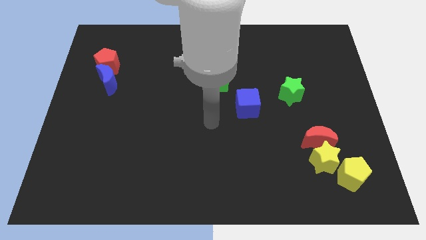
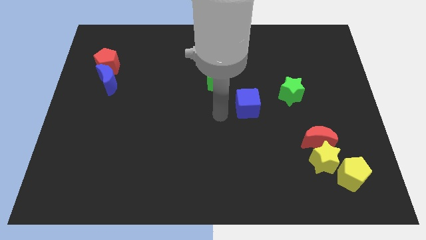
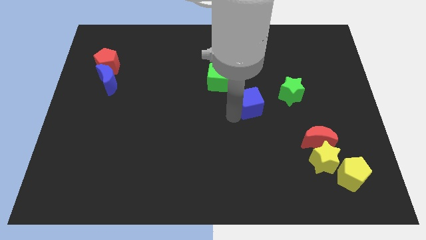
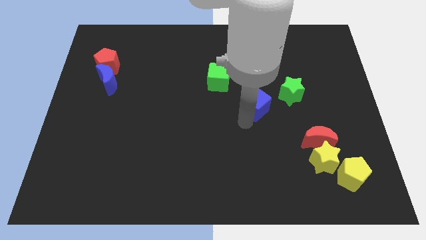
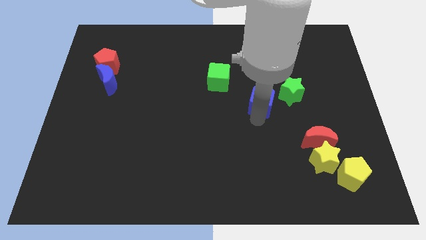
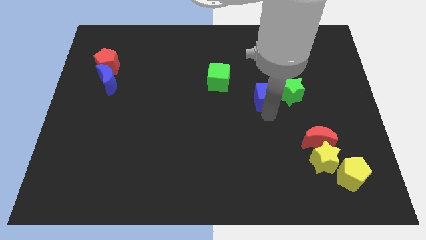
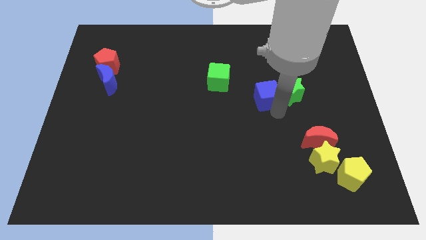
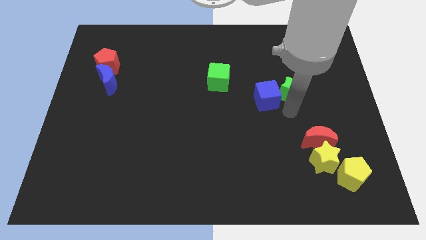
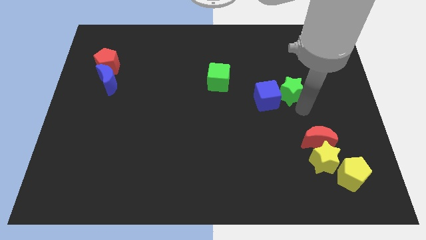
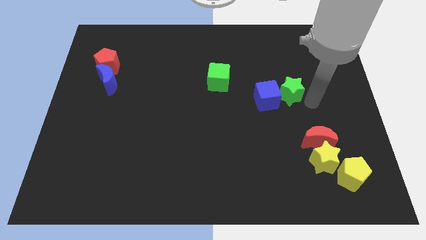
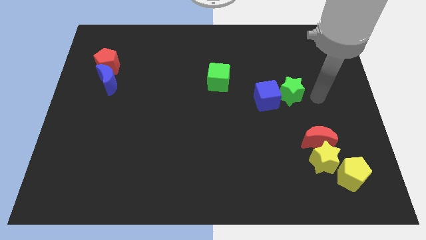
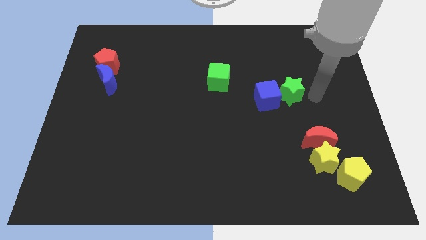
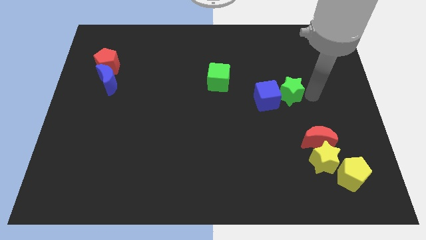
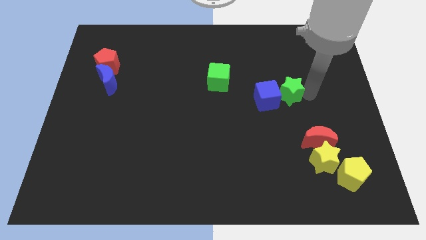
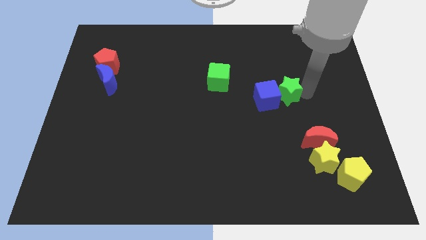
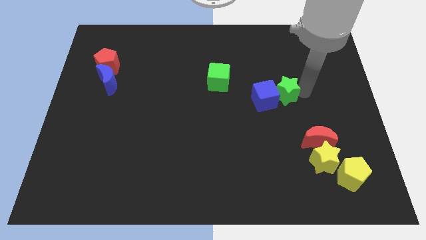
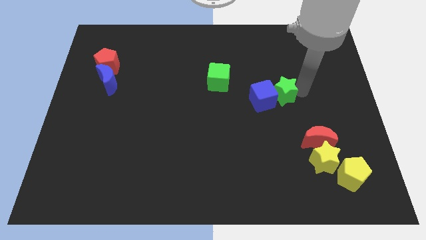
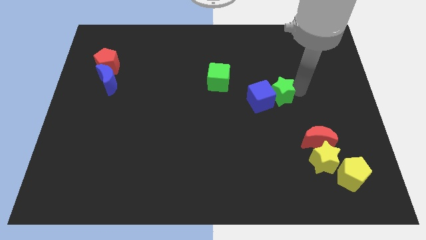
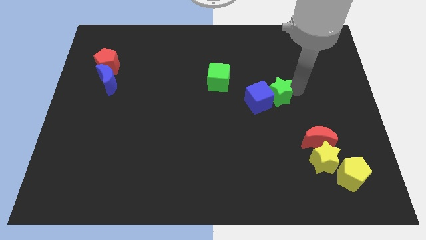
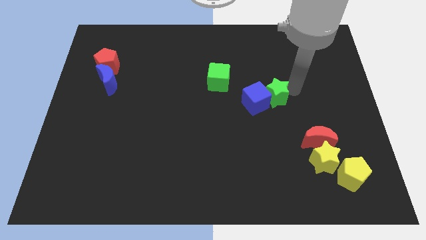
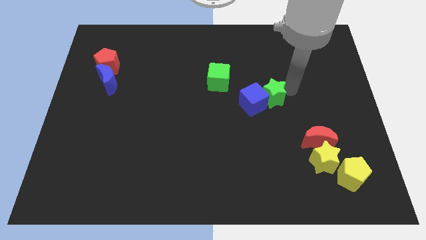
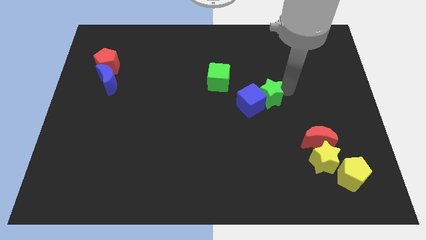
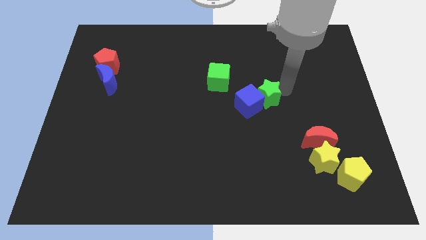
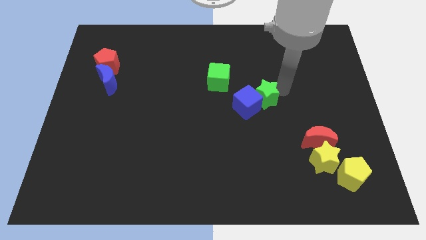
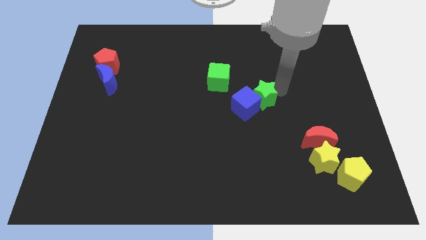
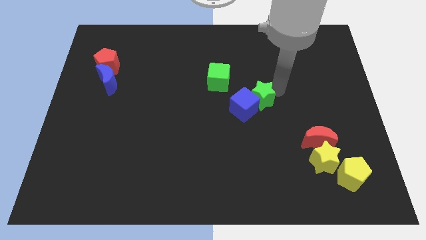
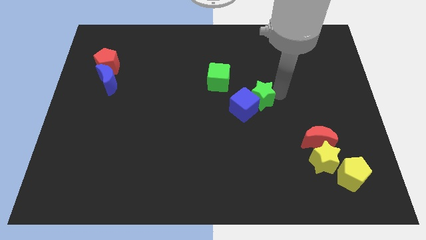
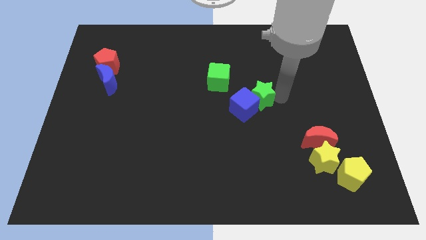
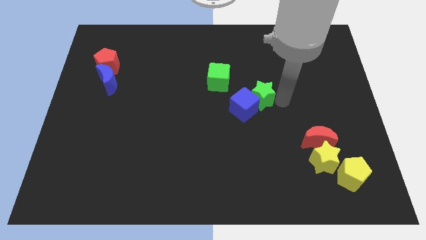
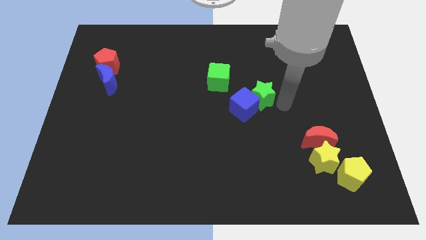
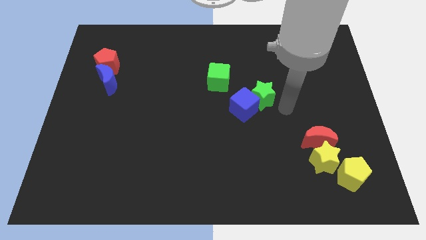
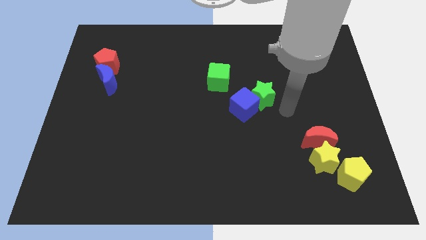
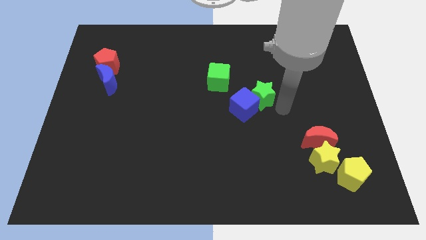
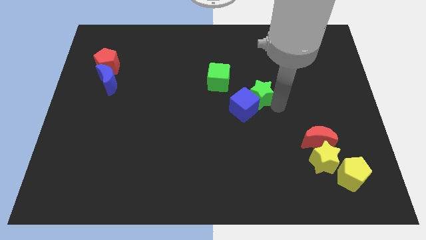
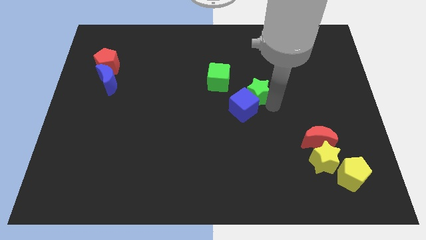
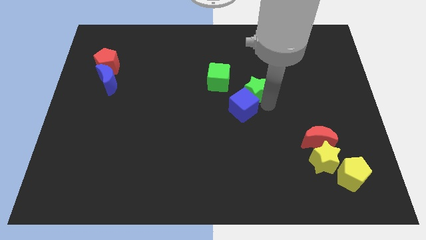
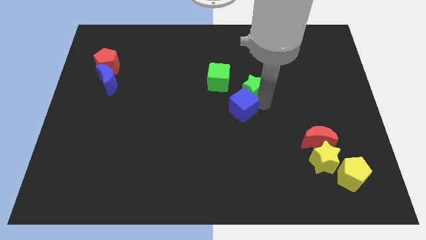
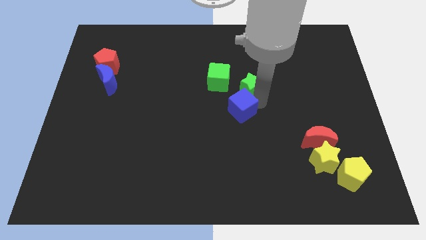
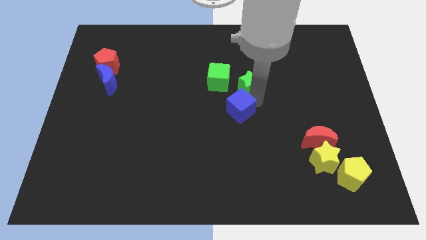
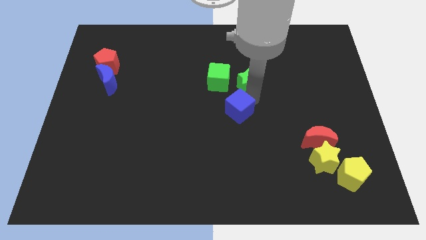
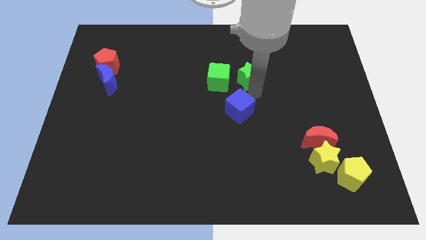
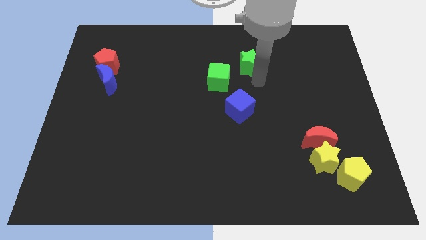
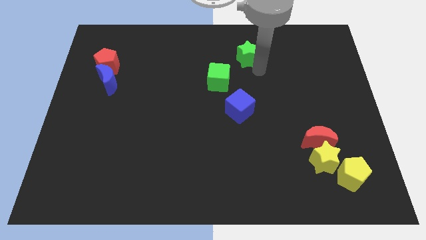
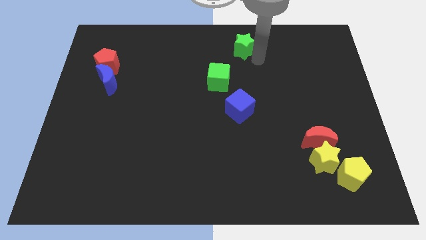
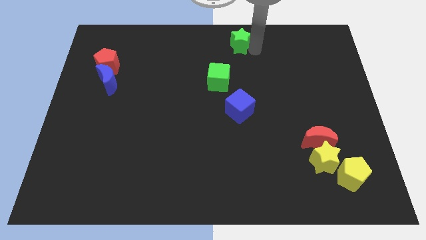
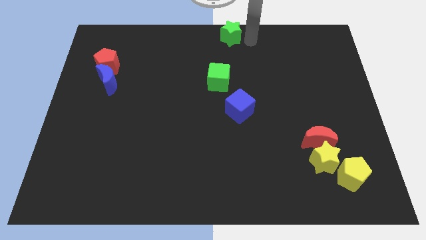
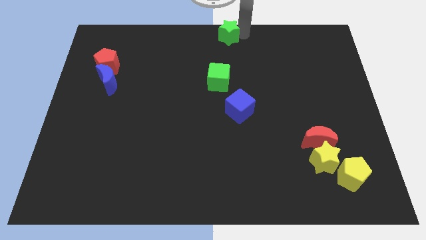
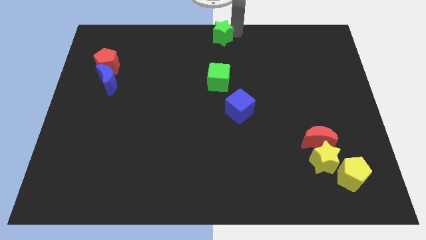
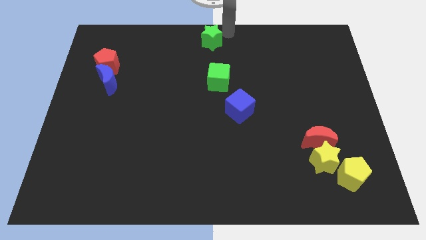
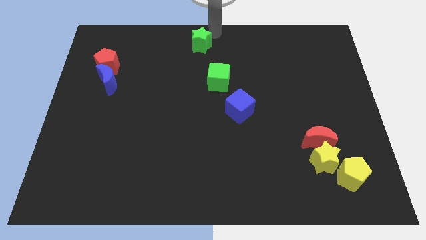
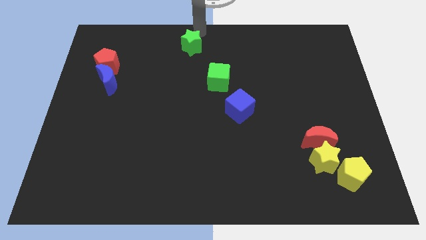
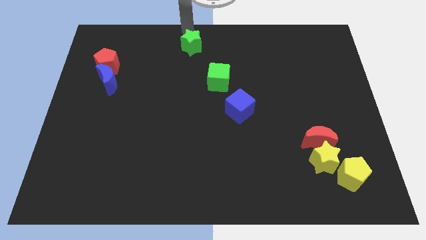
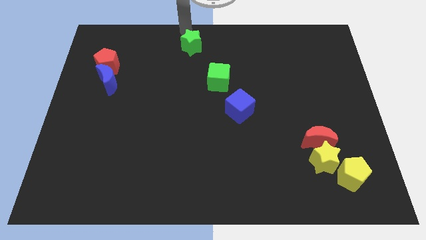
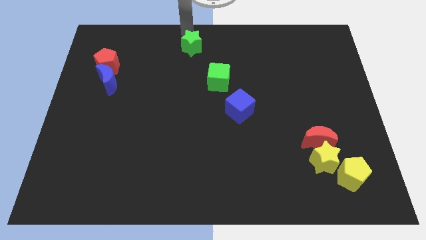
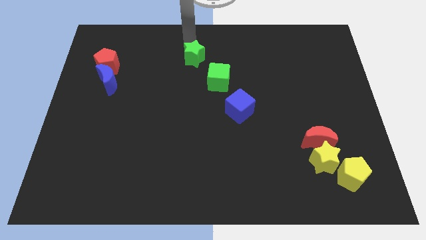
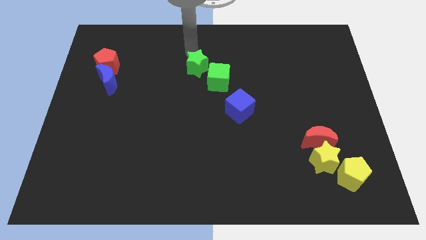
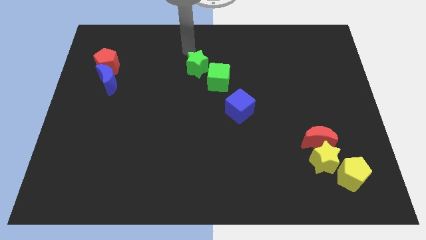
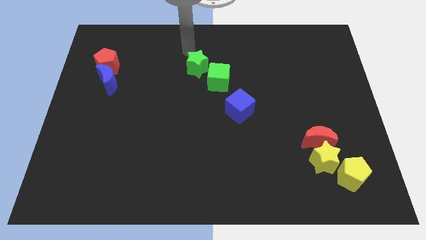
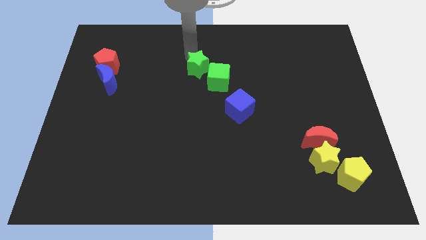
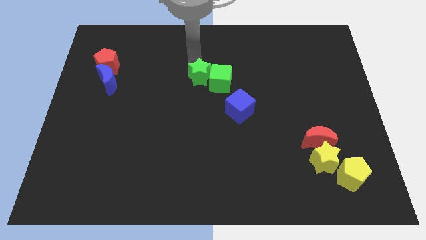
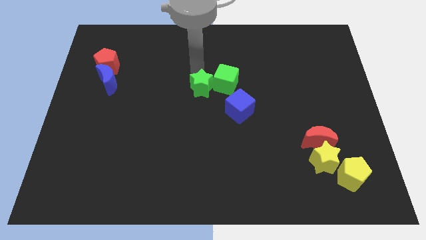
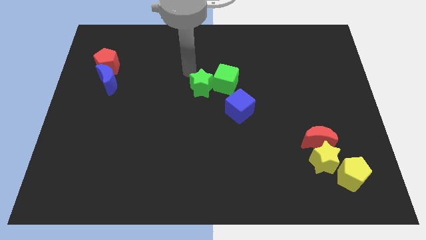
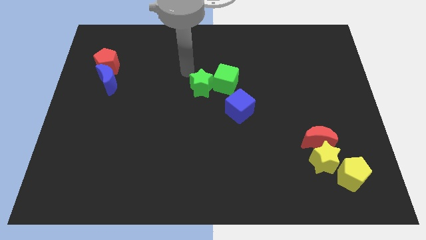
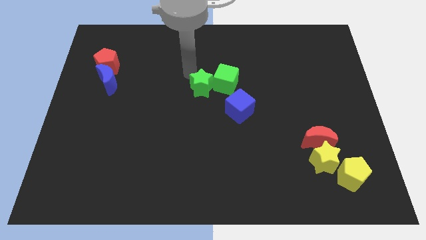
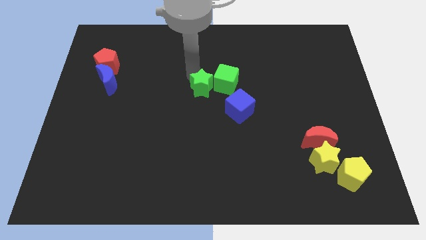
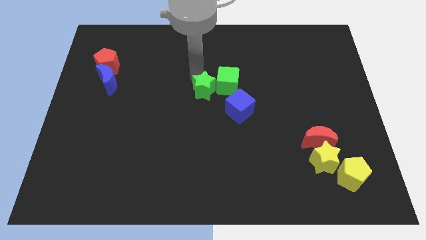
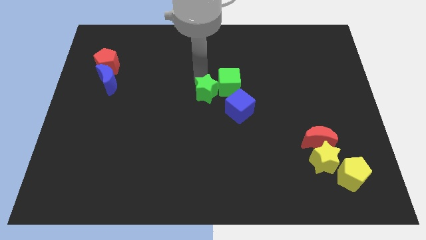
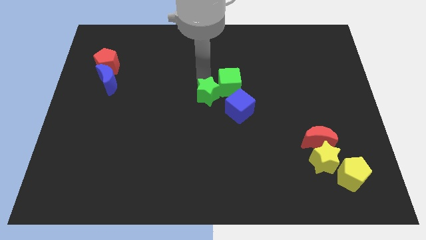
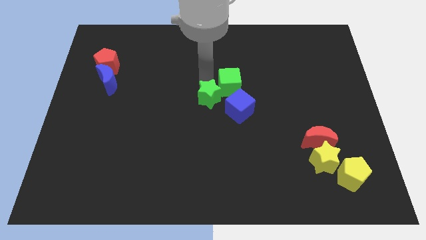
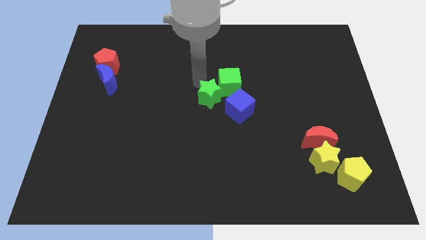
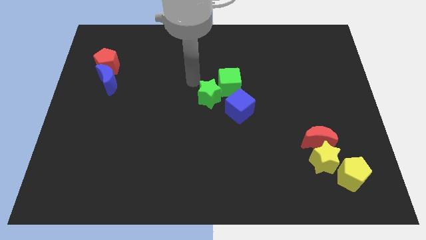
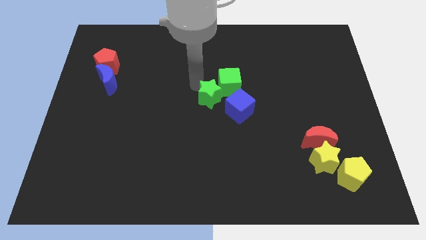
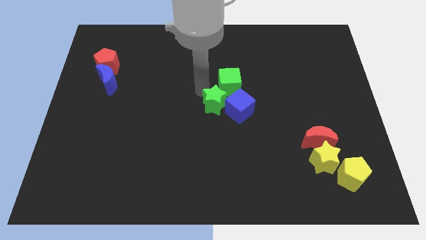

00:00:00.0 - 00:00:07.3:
move the green star below the green cube
